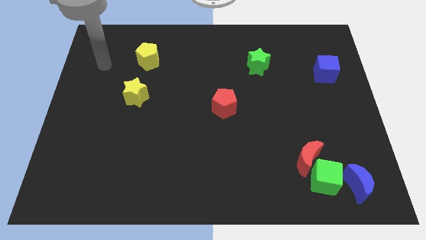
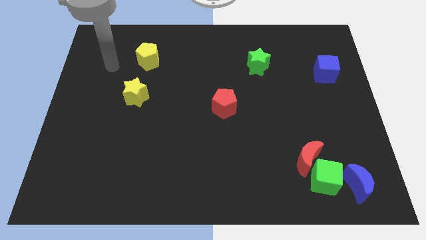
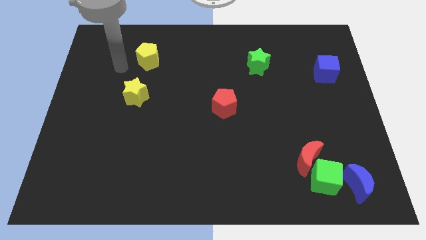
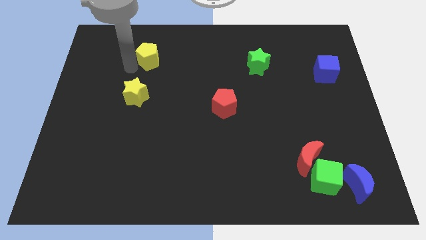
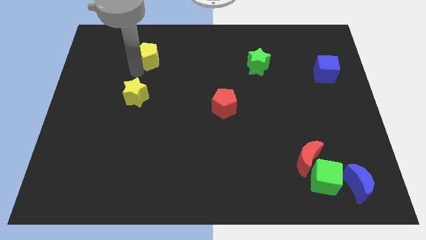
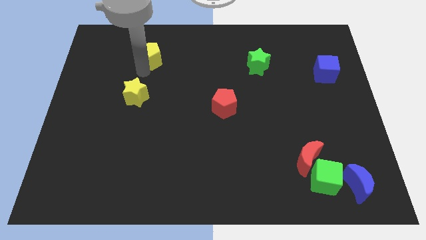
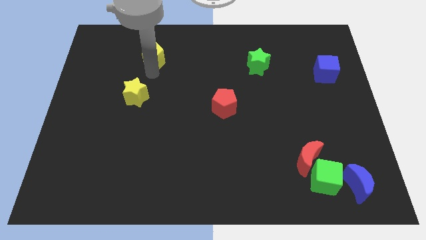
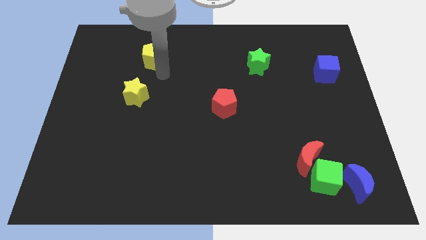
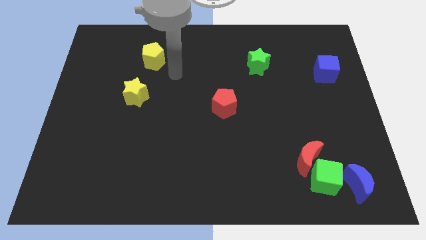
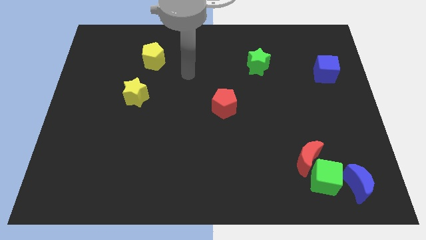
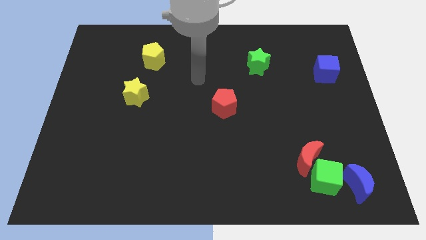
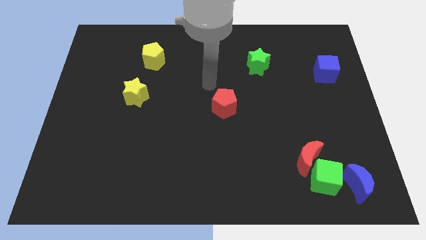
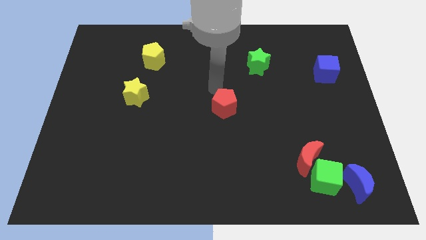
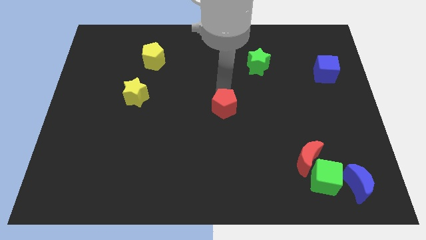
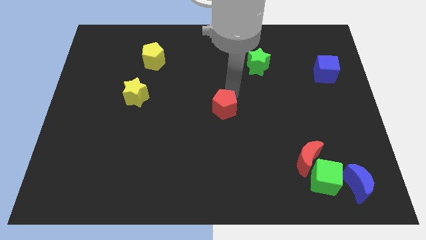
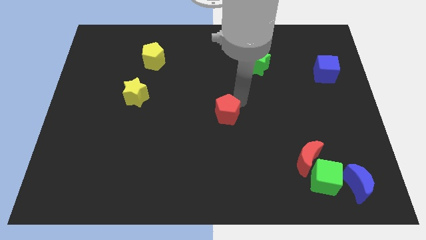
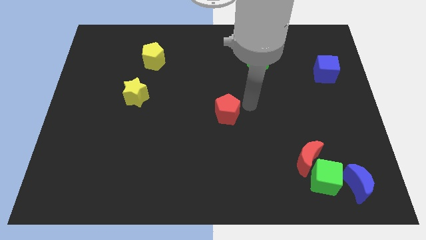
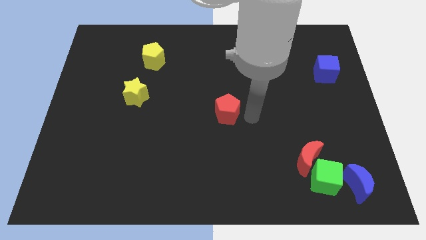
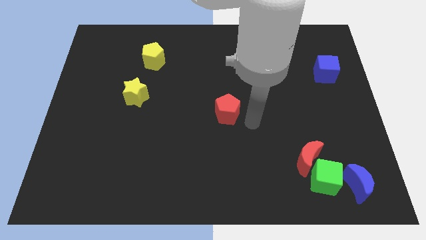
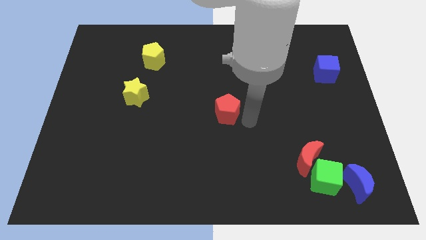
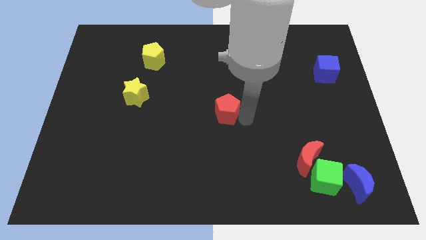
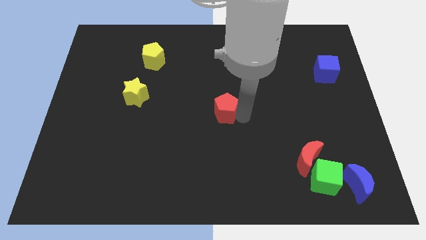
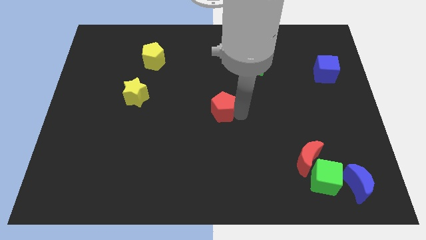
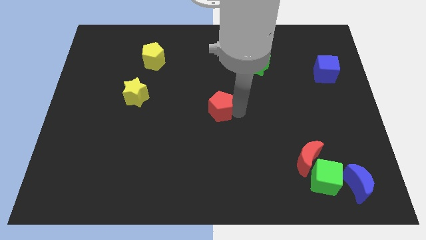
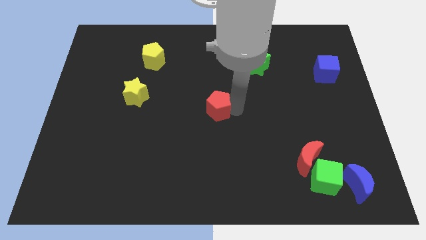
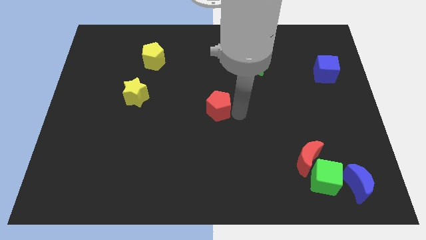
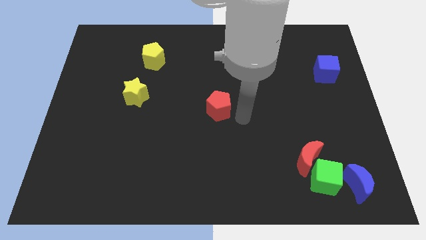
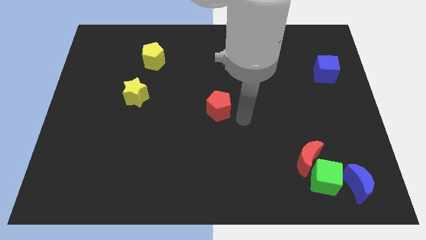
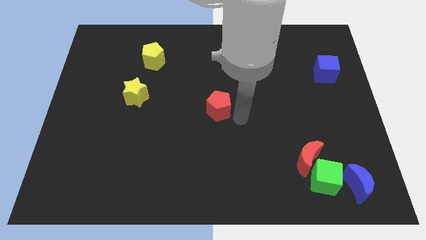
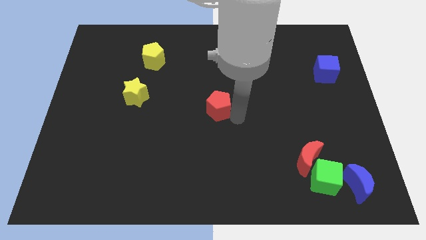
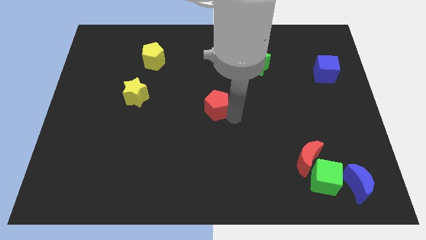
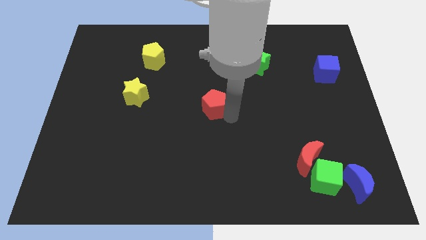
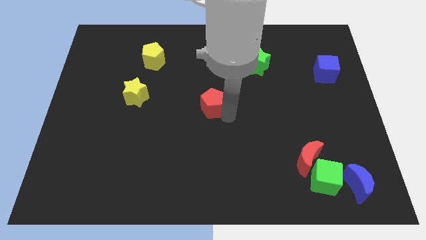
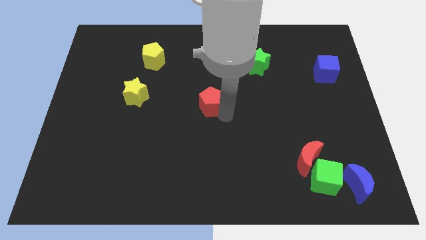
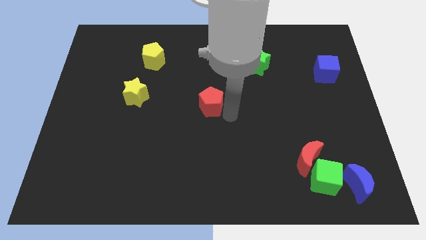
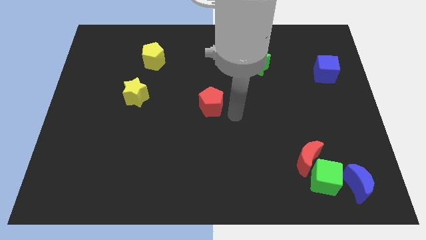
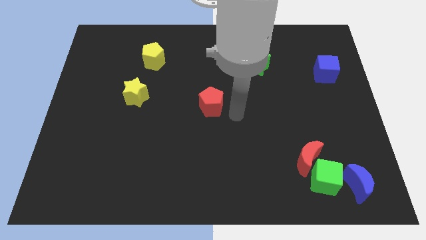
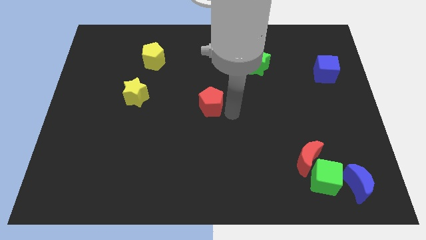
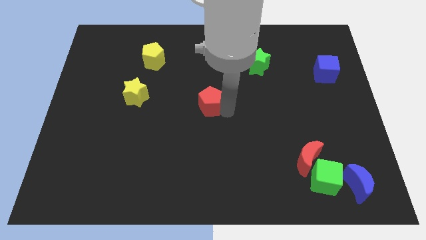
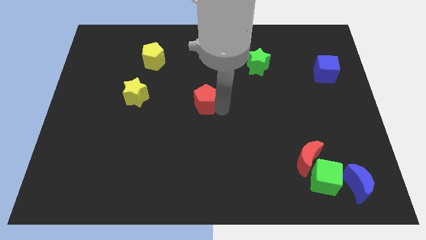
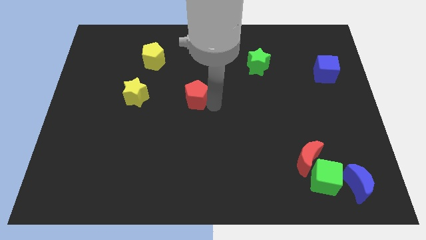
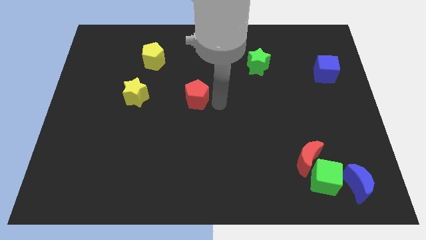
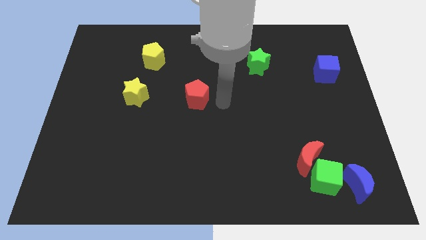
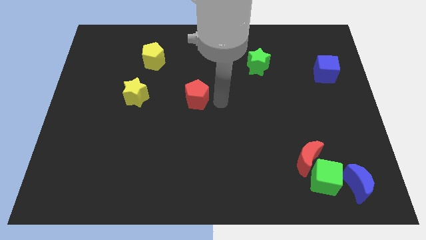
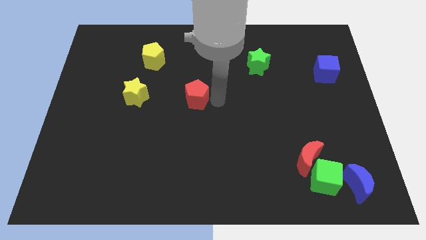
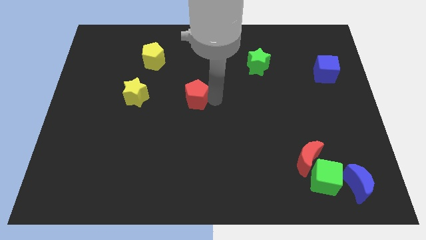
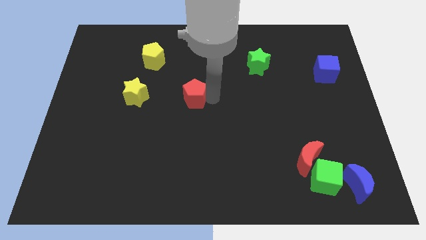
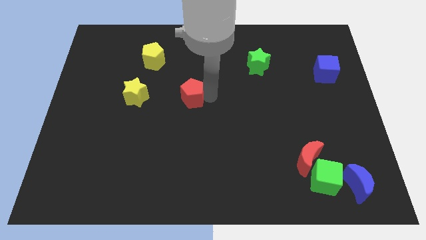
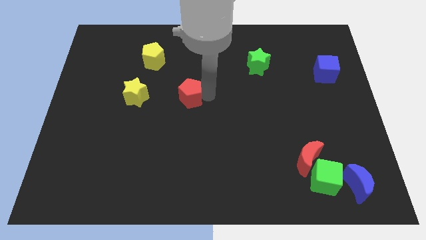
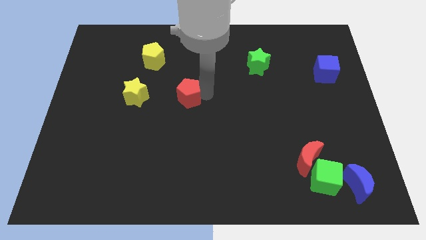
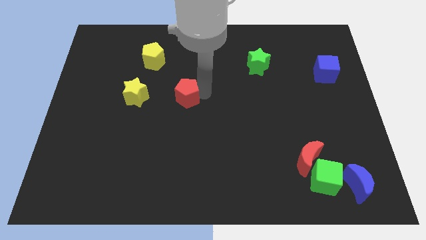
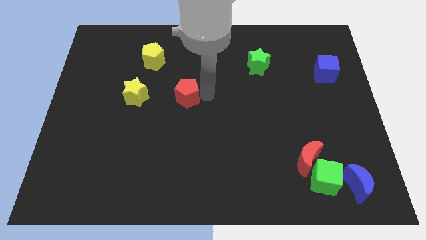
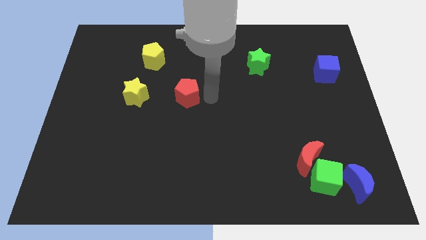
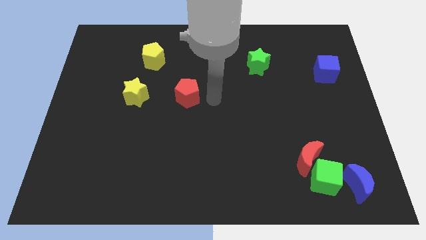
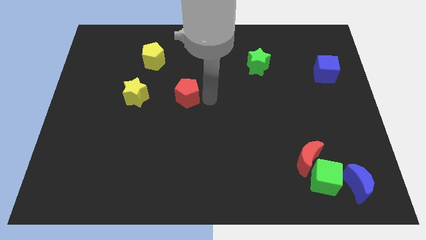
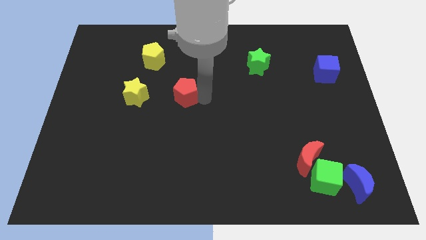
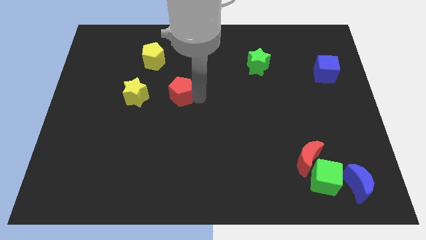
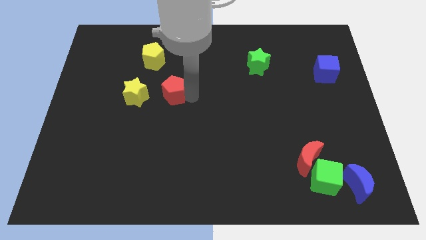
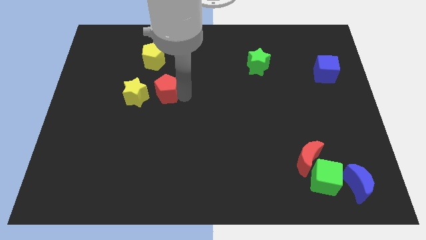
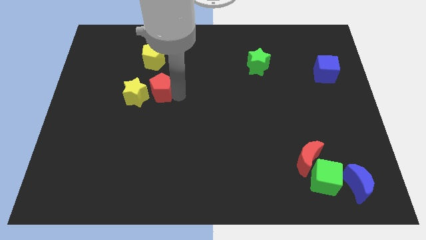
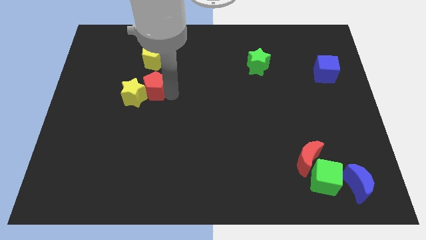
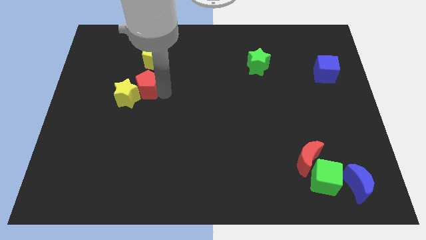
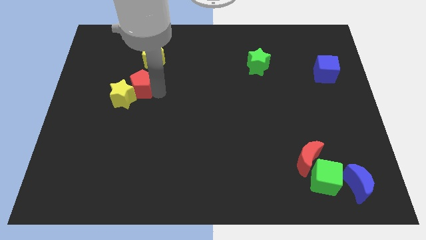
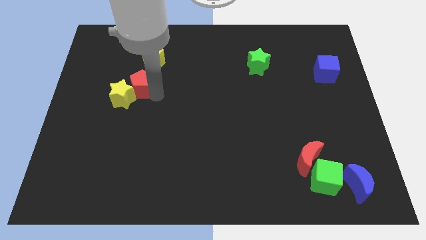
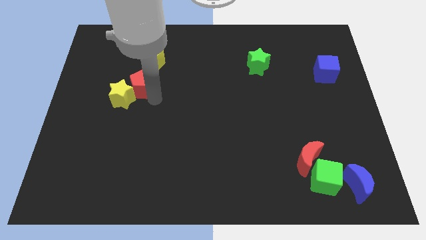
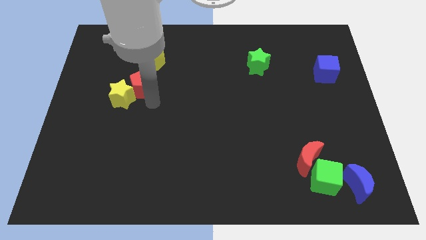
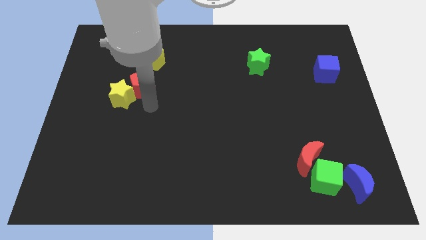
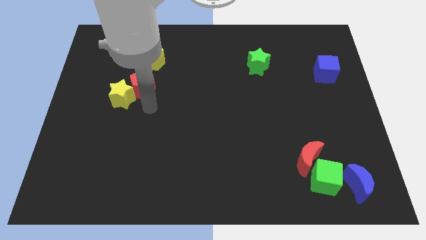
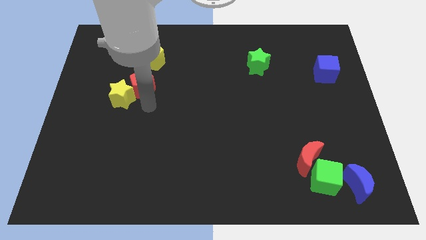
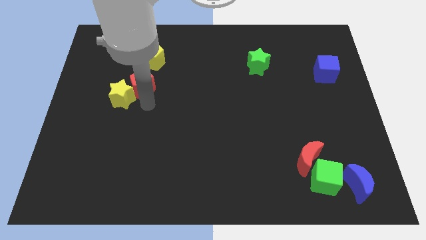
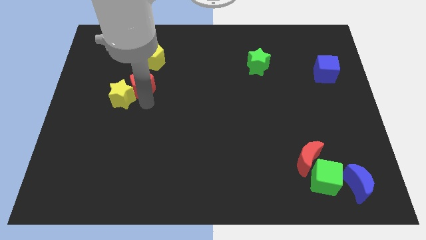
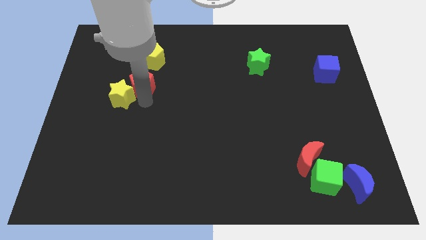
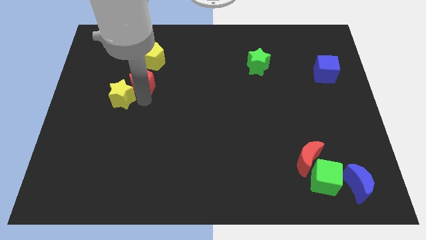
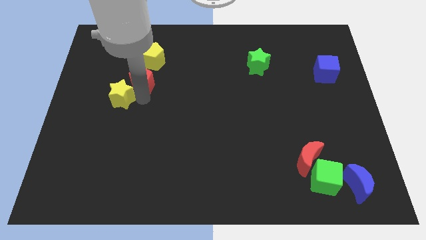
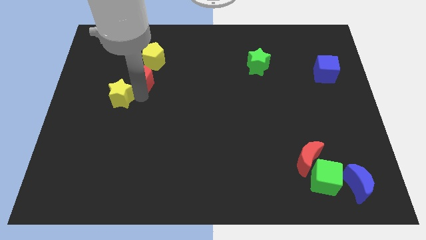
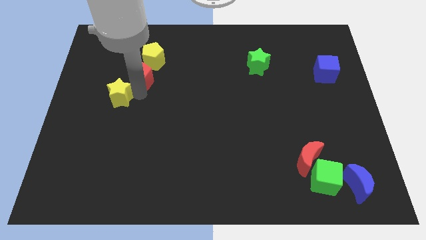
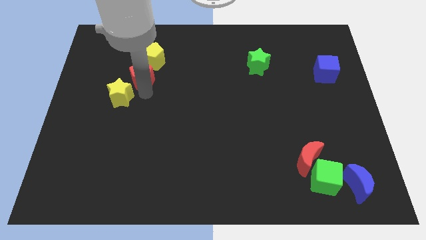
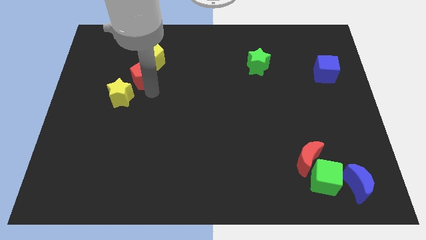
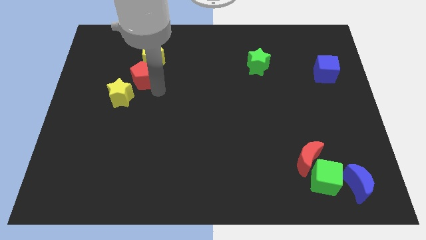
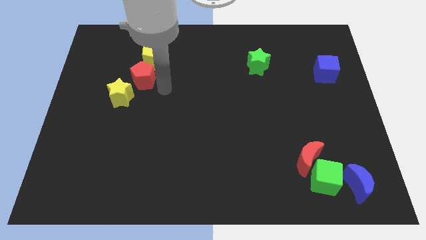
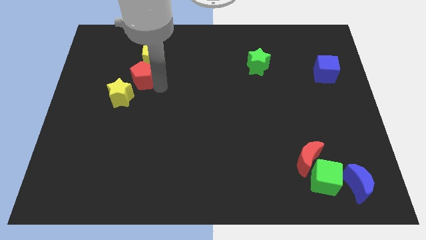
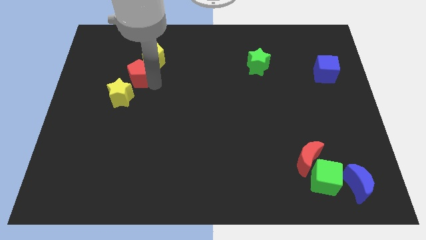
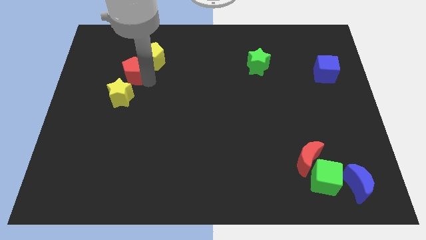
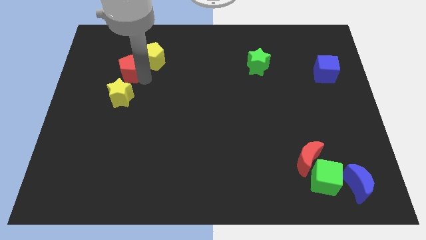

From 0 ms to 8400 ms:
push the red pentagon left of the yellow pentagon
